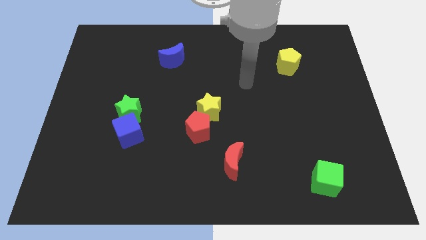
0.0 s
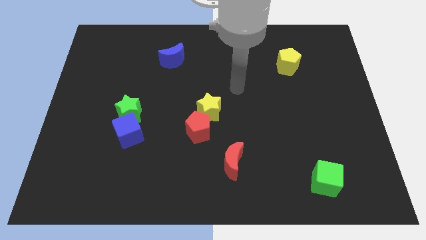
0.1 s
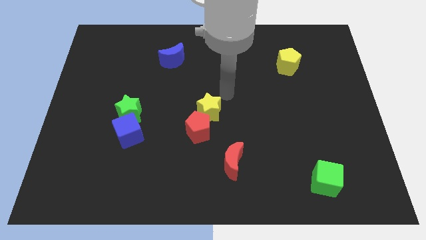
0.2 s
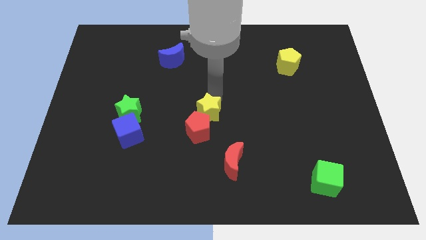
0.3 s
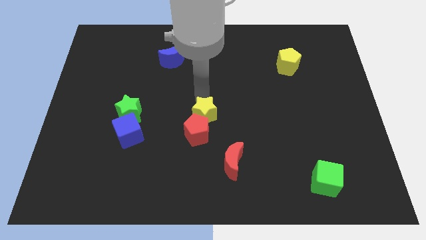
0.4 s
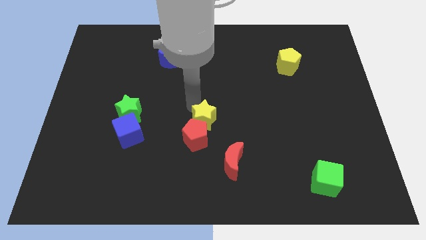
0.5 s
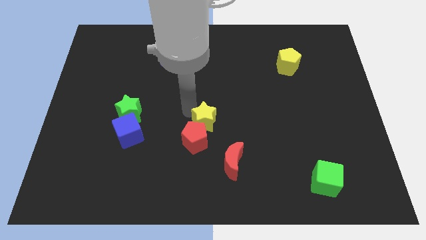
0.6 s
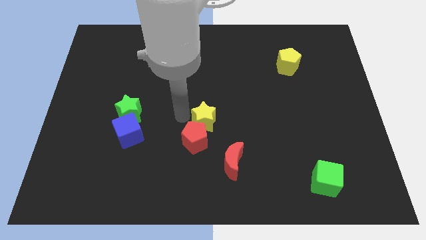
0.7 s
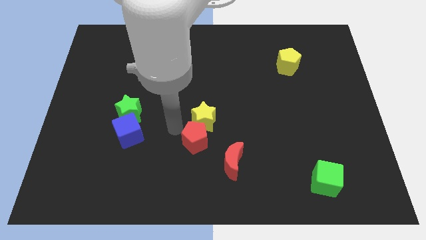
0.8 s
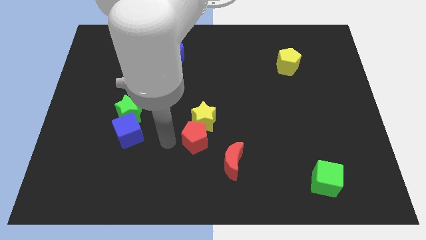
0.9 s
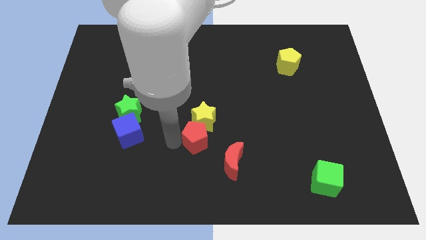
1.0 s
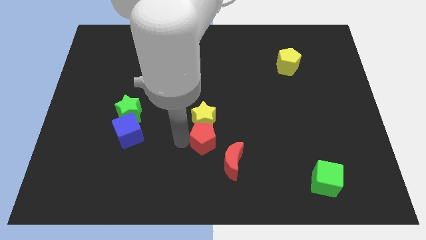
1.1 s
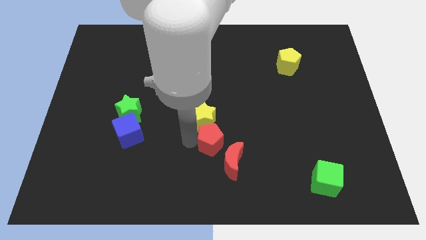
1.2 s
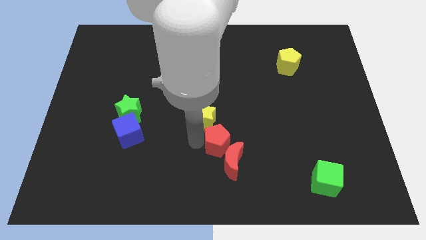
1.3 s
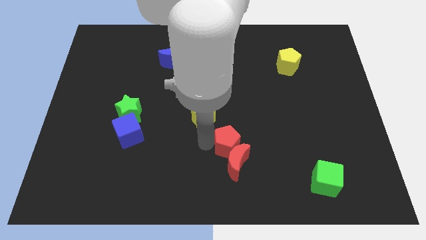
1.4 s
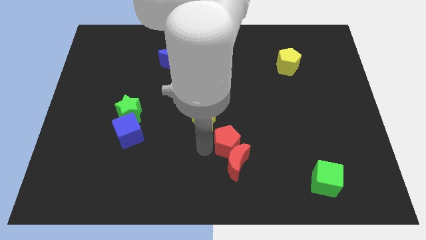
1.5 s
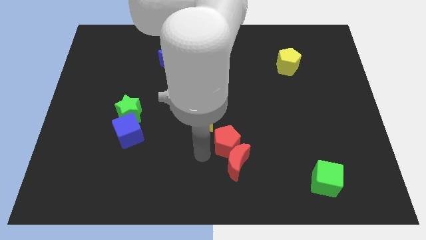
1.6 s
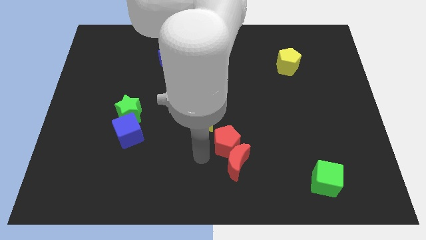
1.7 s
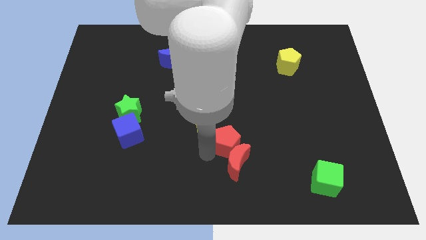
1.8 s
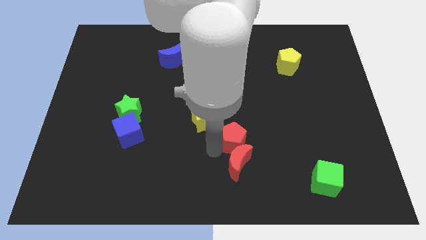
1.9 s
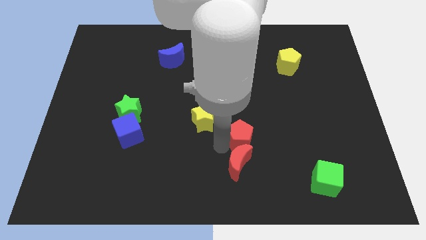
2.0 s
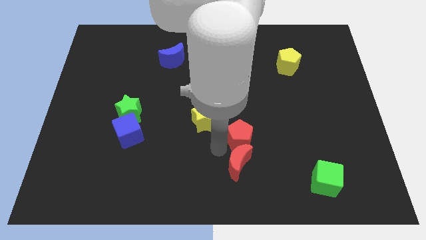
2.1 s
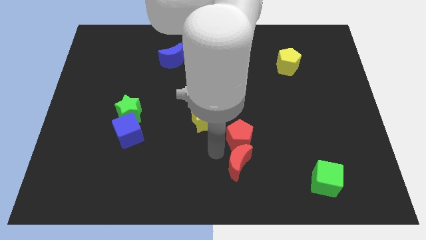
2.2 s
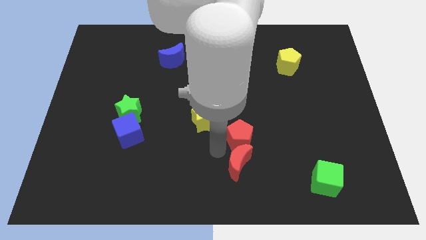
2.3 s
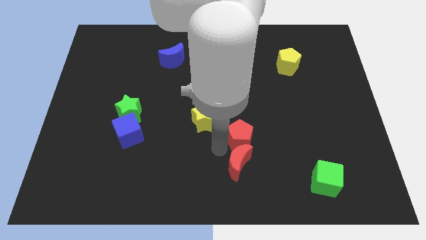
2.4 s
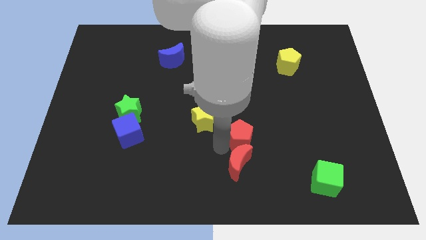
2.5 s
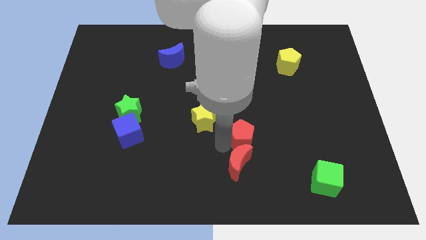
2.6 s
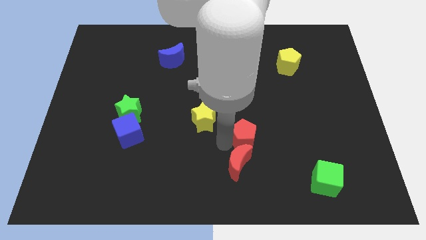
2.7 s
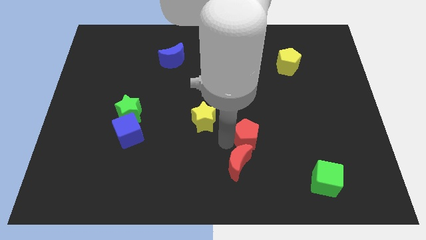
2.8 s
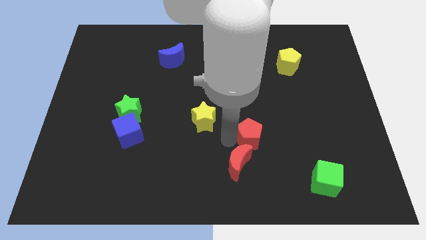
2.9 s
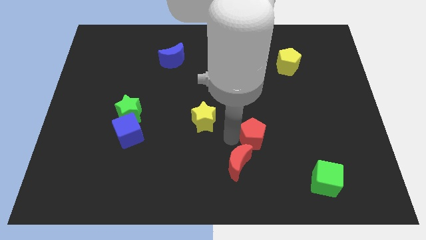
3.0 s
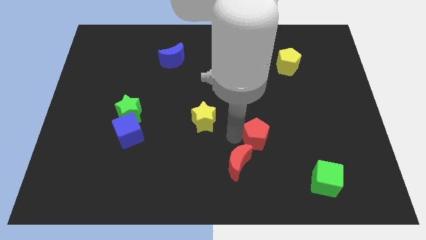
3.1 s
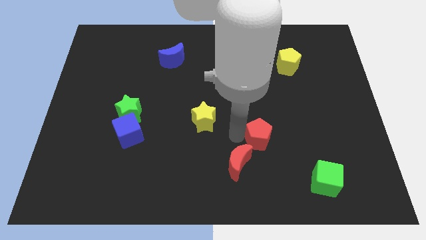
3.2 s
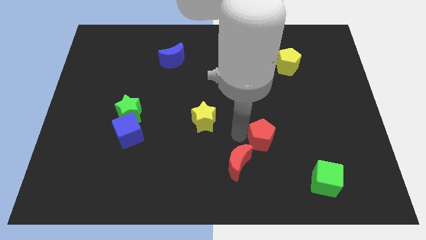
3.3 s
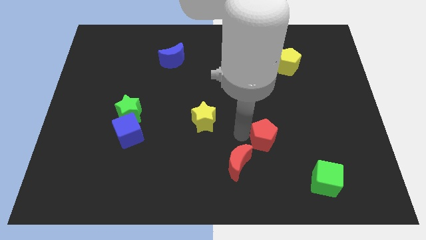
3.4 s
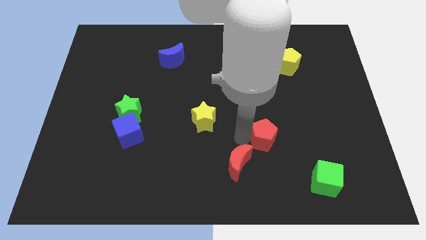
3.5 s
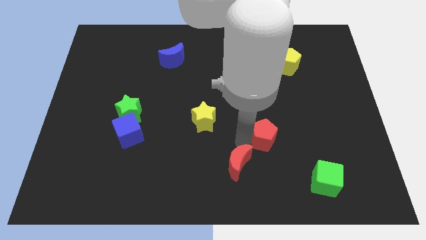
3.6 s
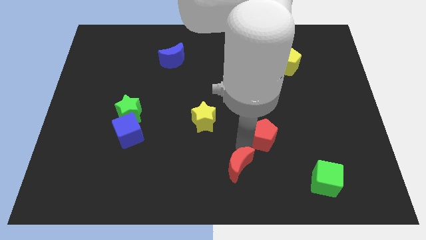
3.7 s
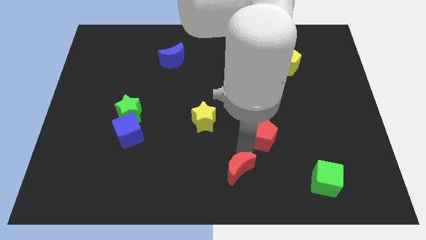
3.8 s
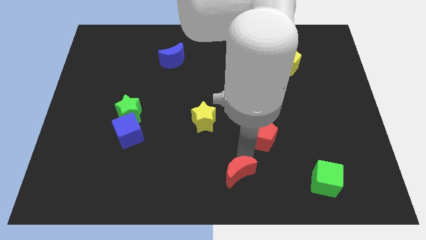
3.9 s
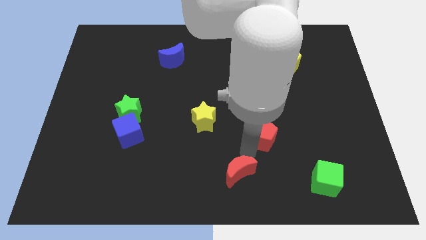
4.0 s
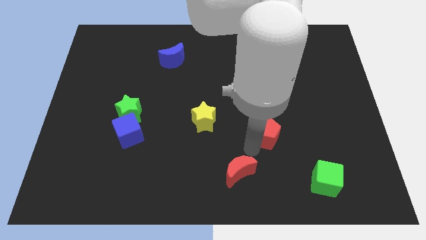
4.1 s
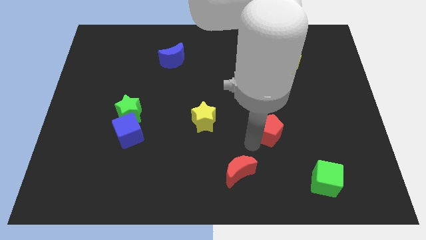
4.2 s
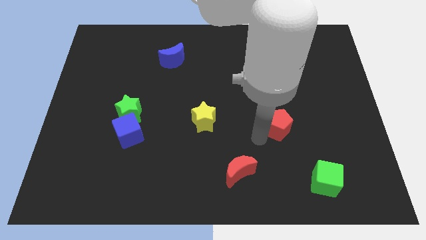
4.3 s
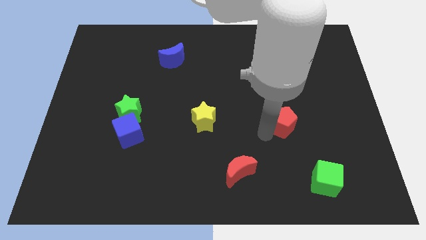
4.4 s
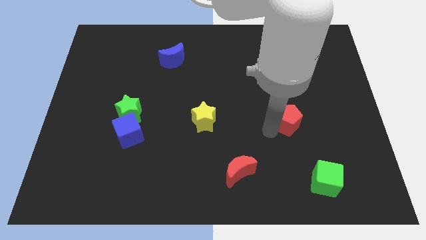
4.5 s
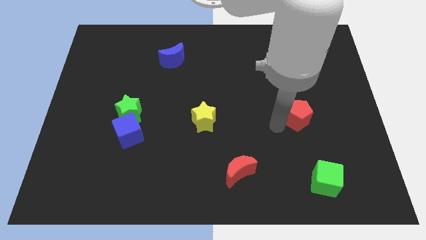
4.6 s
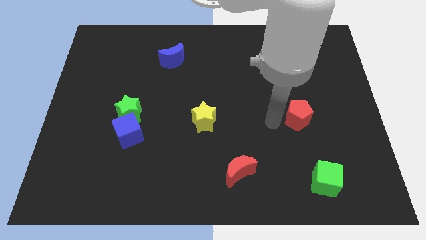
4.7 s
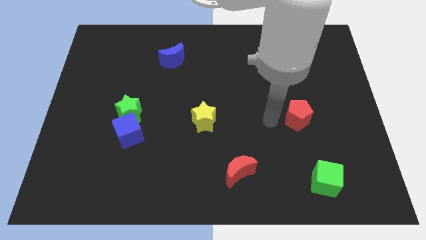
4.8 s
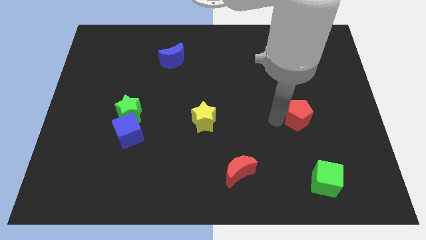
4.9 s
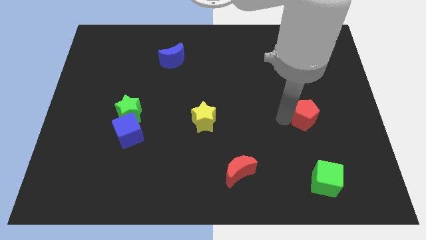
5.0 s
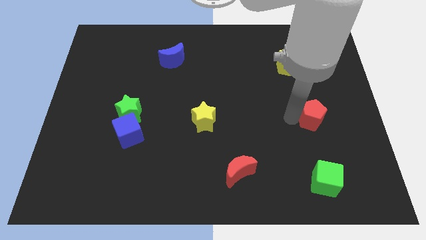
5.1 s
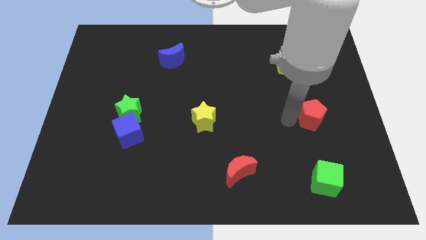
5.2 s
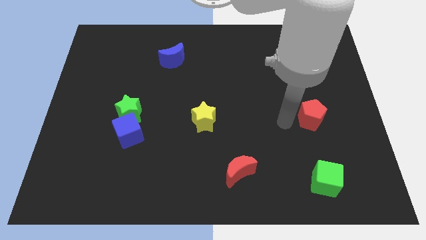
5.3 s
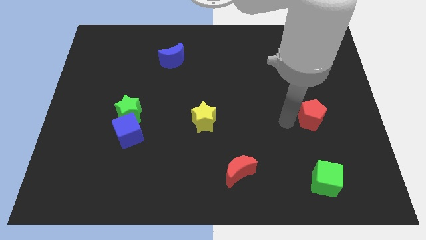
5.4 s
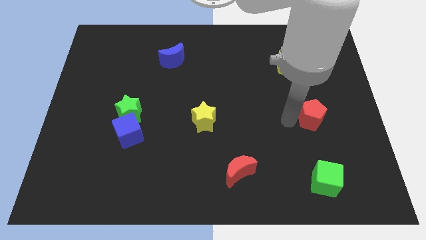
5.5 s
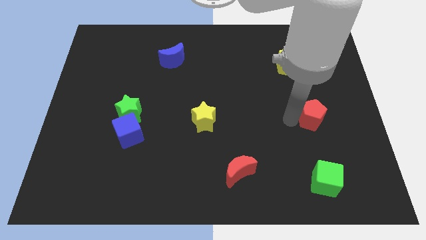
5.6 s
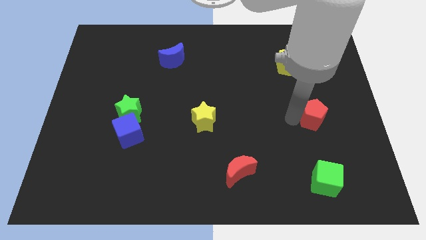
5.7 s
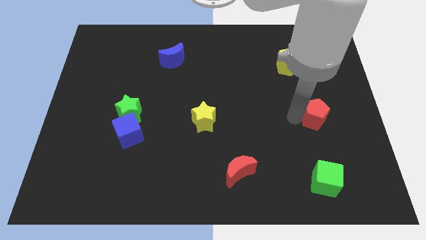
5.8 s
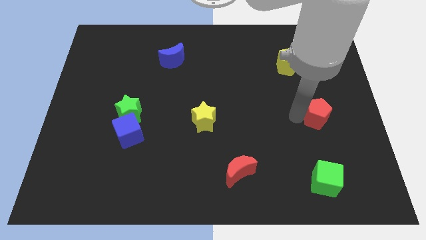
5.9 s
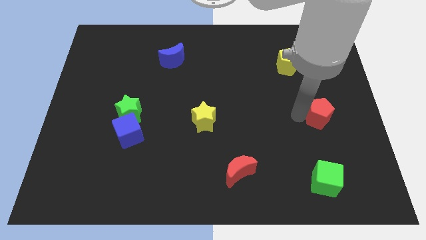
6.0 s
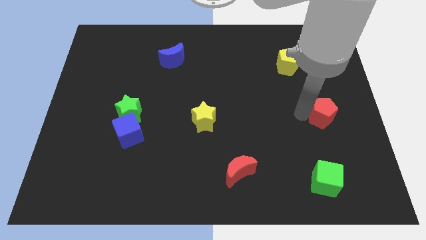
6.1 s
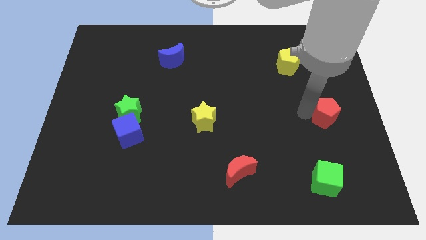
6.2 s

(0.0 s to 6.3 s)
push the red pentagon to the right side
